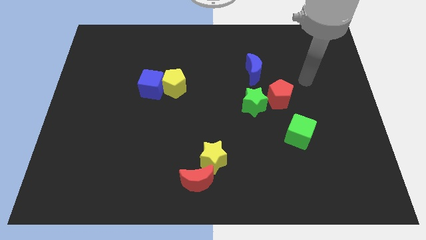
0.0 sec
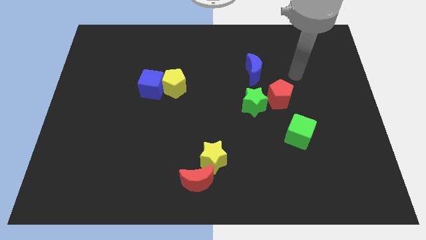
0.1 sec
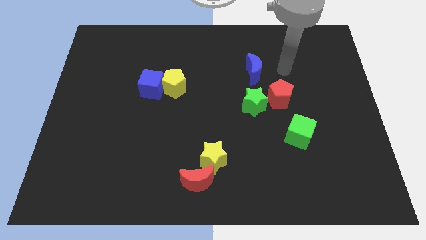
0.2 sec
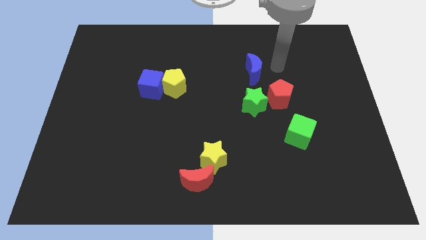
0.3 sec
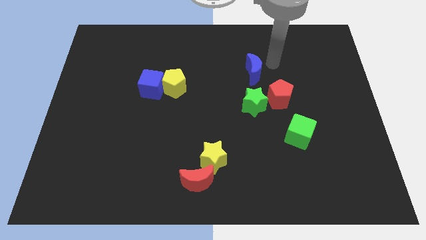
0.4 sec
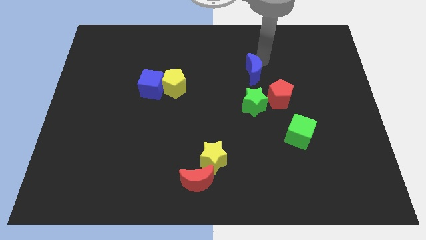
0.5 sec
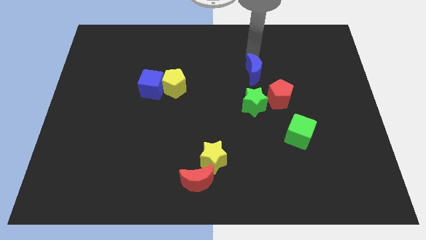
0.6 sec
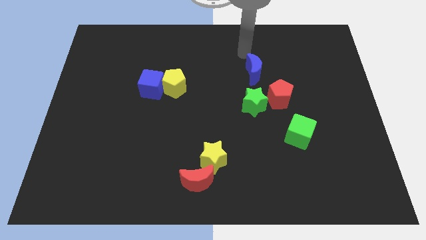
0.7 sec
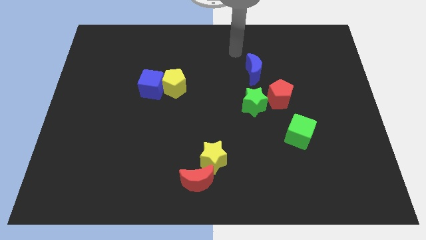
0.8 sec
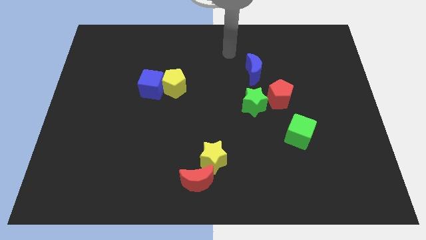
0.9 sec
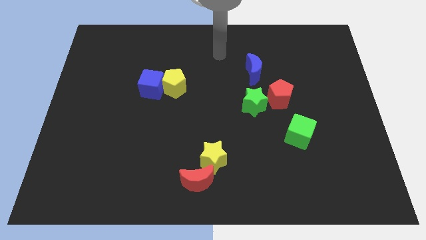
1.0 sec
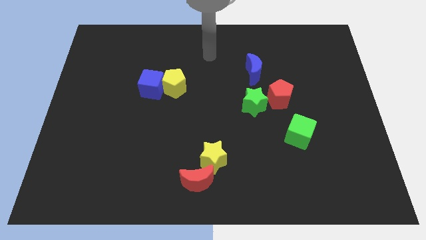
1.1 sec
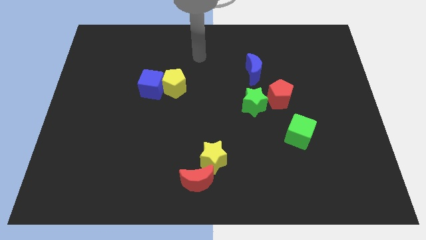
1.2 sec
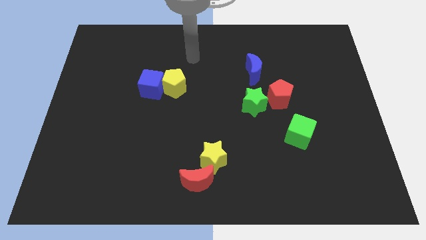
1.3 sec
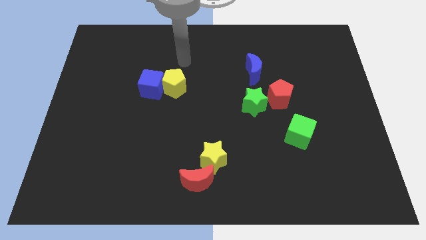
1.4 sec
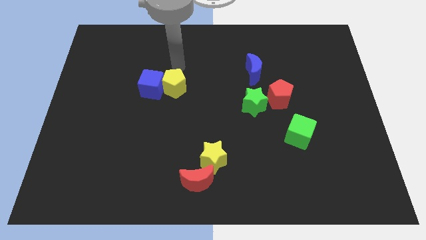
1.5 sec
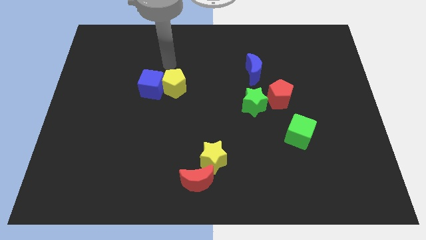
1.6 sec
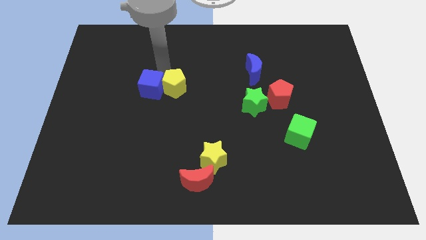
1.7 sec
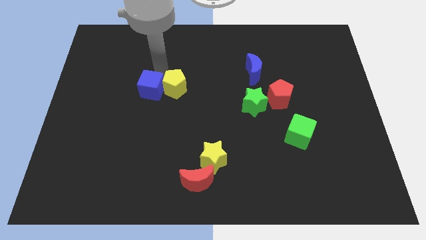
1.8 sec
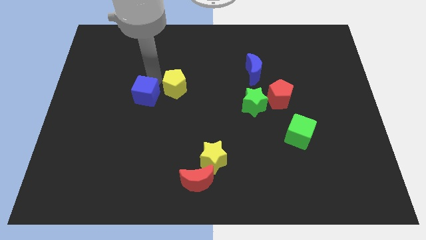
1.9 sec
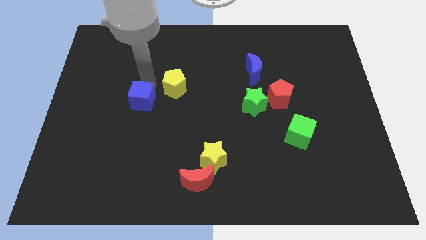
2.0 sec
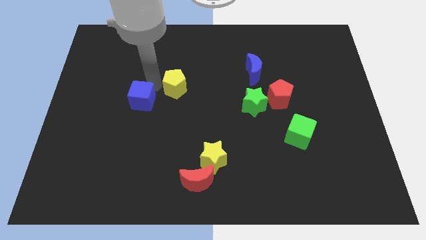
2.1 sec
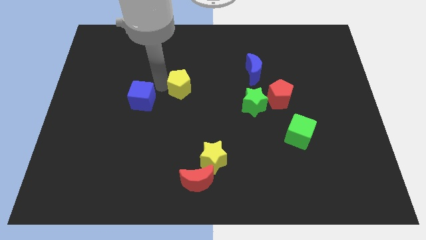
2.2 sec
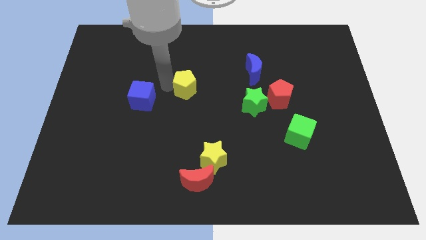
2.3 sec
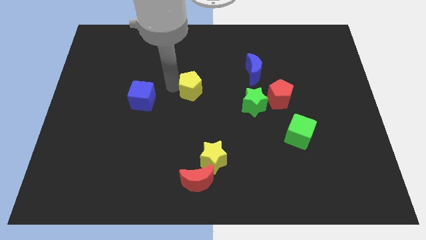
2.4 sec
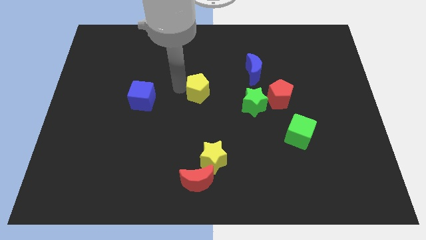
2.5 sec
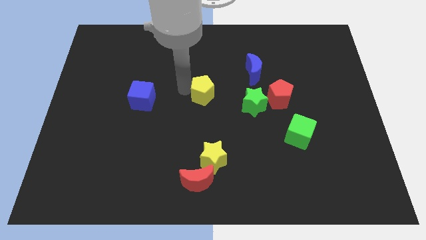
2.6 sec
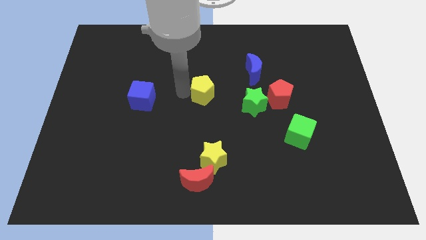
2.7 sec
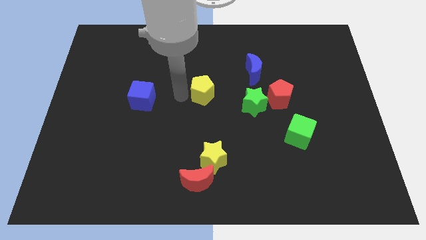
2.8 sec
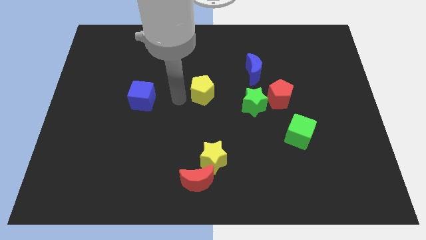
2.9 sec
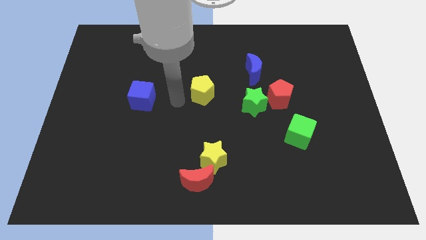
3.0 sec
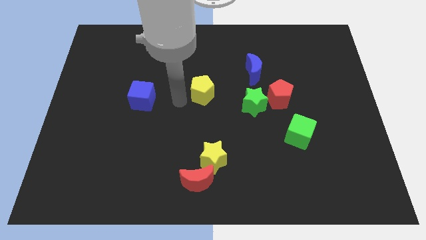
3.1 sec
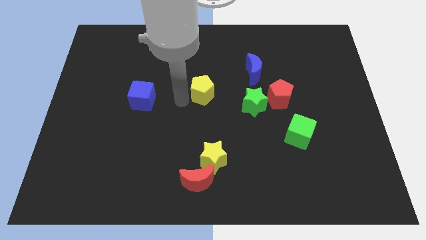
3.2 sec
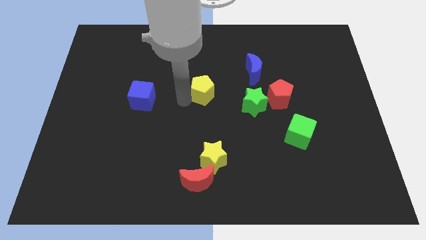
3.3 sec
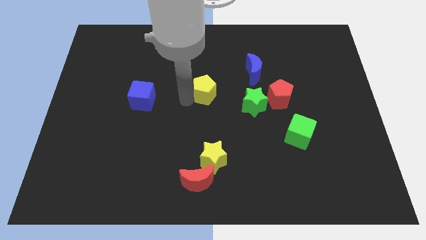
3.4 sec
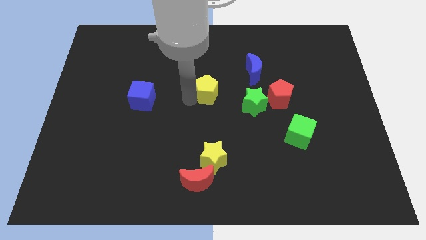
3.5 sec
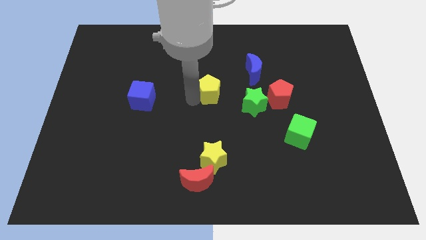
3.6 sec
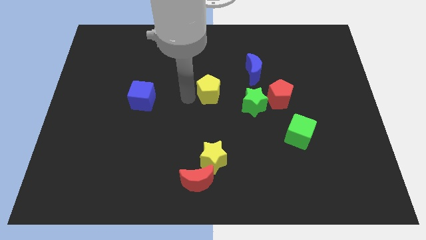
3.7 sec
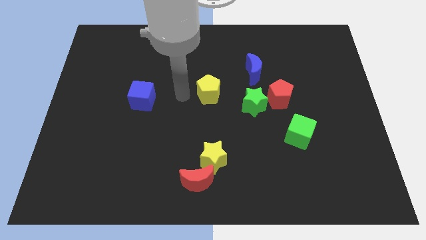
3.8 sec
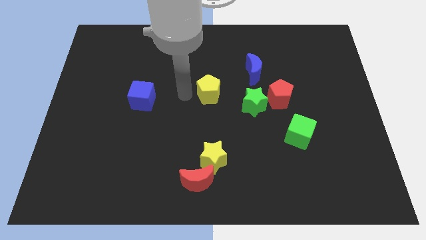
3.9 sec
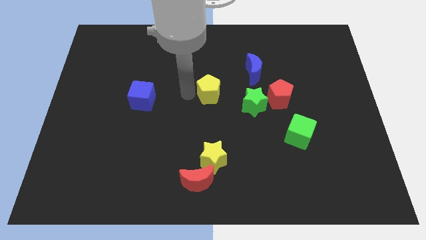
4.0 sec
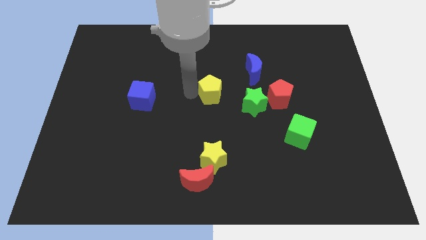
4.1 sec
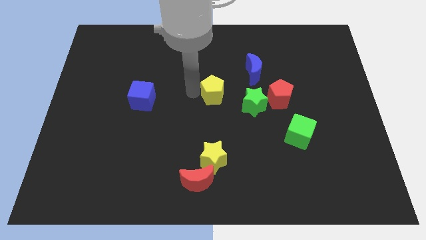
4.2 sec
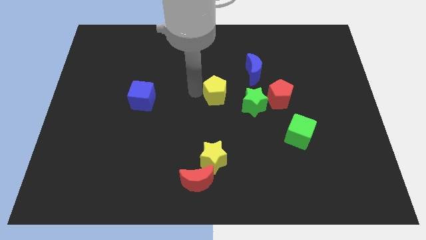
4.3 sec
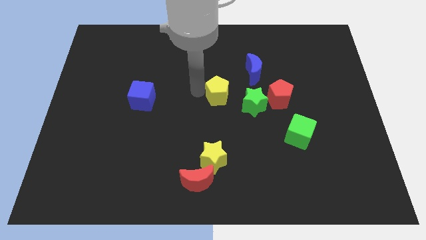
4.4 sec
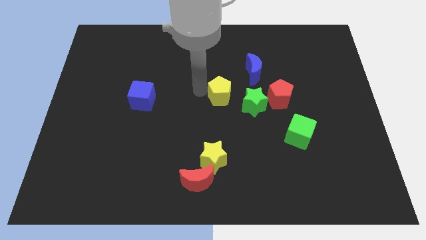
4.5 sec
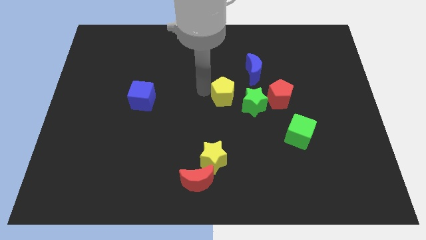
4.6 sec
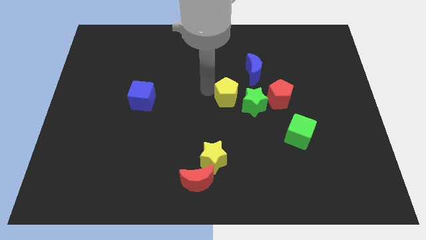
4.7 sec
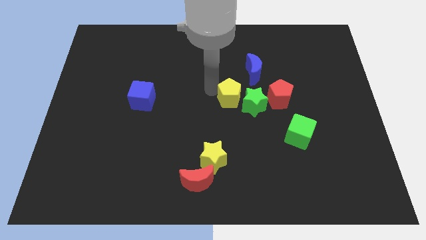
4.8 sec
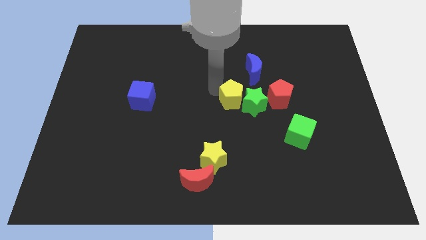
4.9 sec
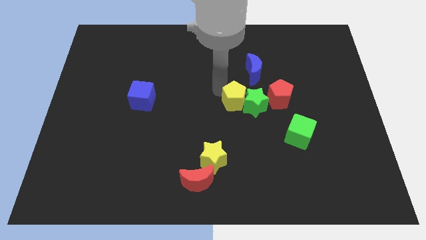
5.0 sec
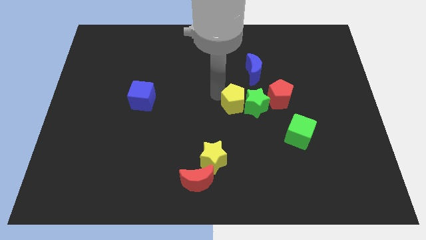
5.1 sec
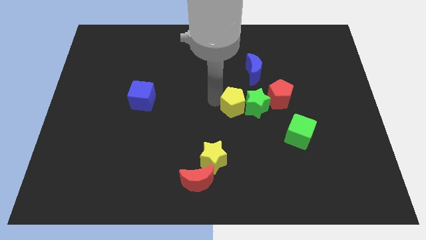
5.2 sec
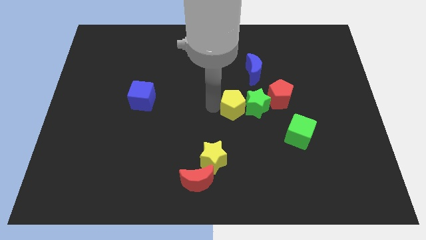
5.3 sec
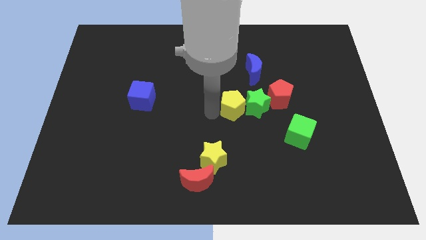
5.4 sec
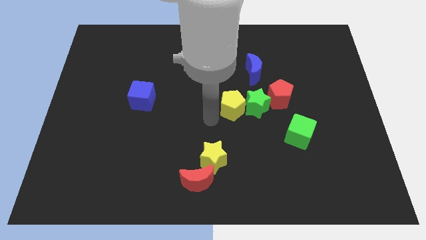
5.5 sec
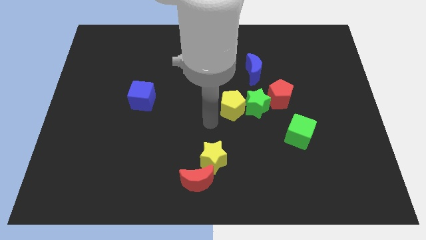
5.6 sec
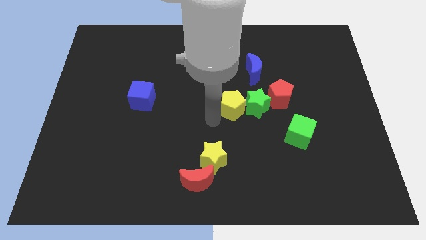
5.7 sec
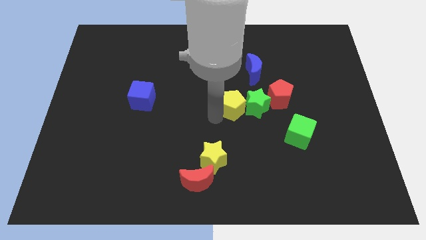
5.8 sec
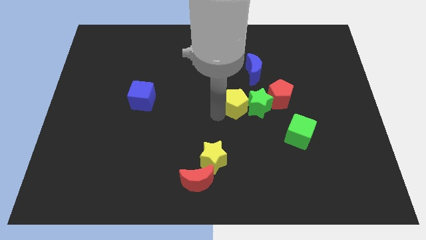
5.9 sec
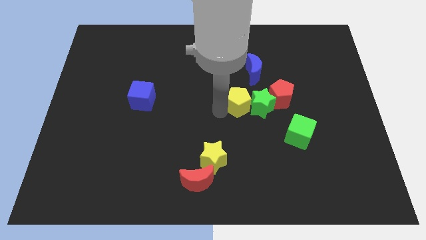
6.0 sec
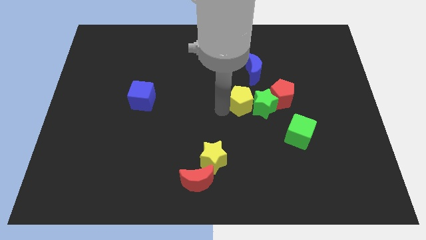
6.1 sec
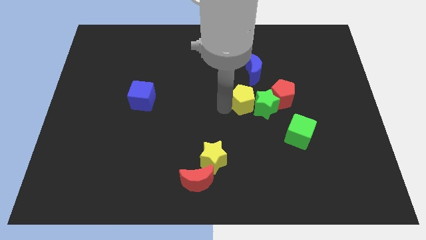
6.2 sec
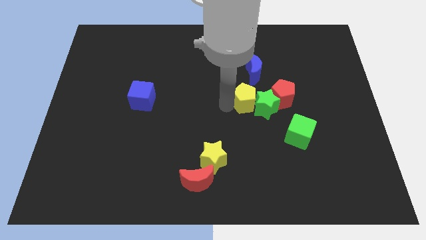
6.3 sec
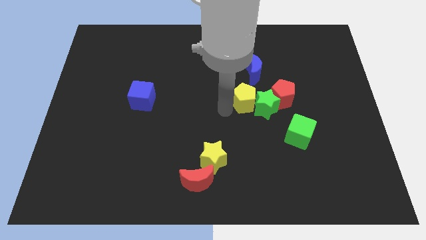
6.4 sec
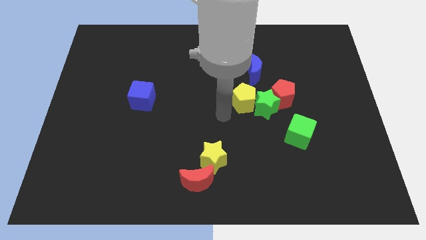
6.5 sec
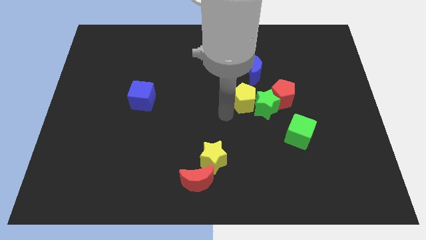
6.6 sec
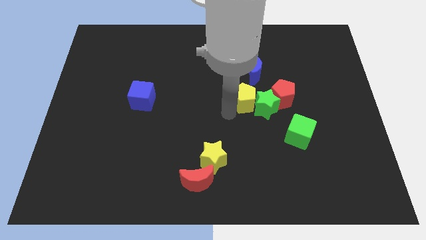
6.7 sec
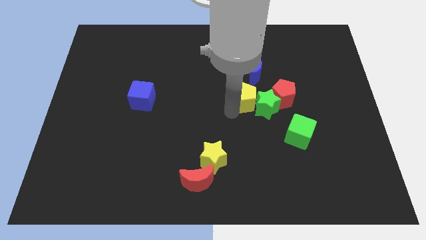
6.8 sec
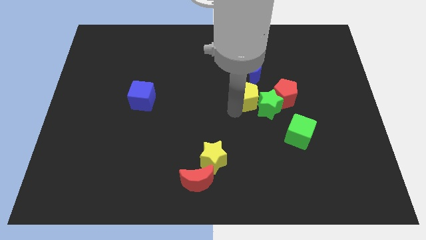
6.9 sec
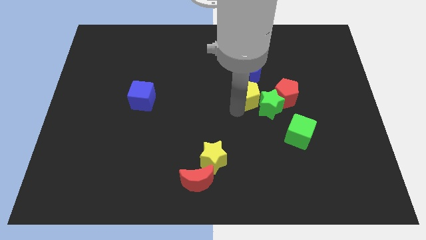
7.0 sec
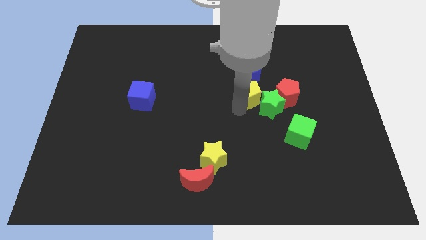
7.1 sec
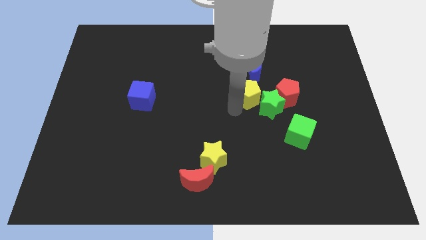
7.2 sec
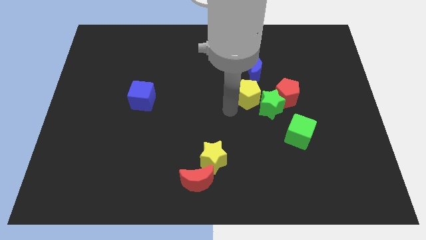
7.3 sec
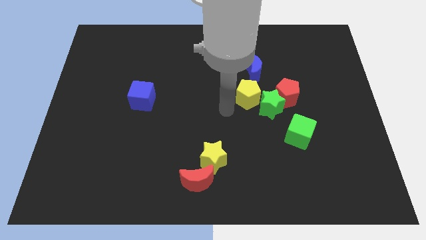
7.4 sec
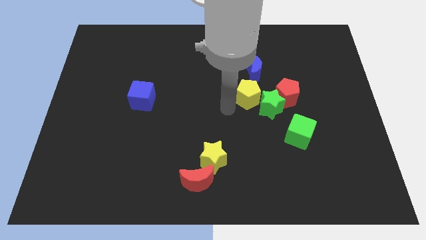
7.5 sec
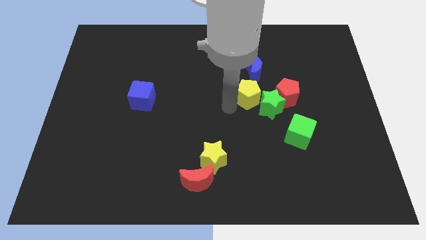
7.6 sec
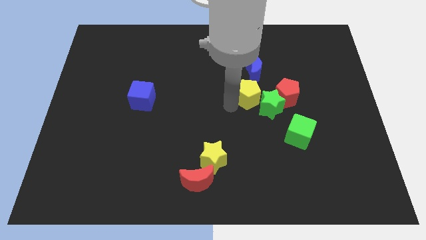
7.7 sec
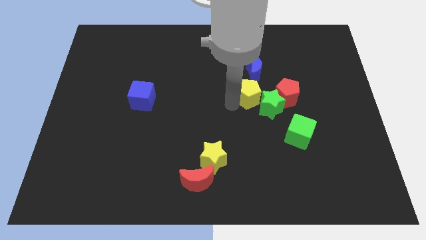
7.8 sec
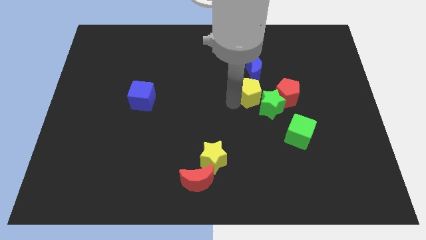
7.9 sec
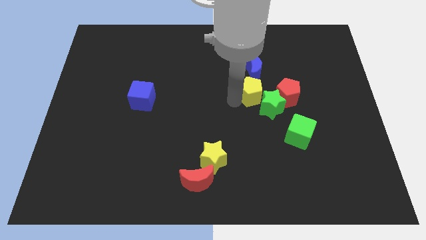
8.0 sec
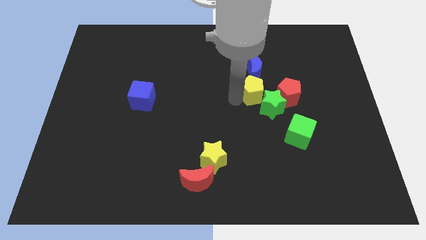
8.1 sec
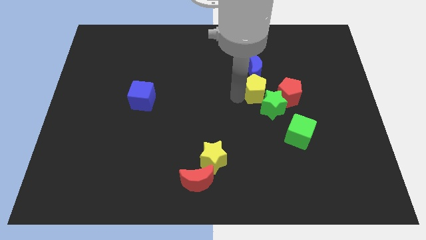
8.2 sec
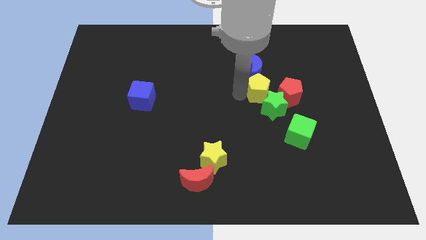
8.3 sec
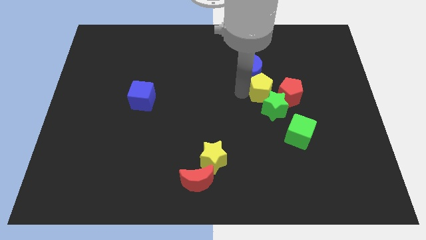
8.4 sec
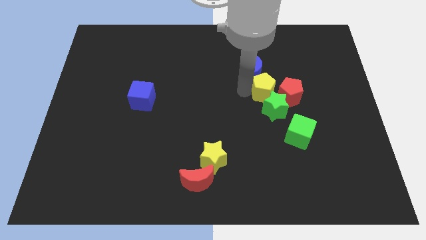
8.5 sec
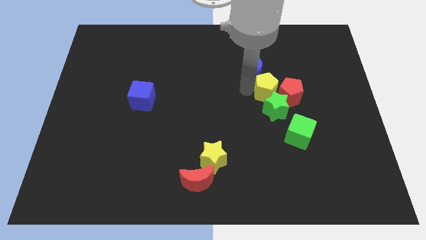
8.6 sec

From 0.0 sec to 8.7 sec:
slide the yellow pentagon to the red pentagon
